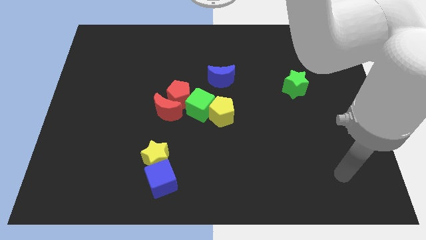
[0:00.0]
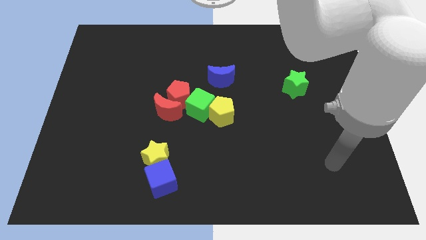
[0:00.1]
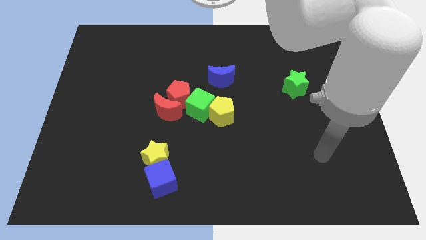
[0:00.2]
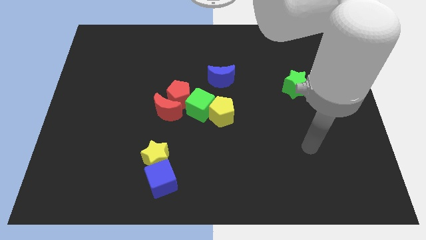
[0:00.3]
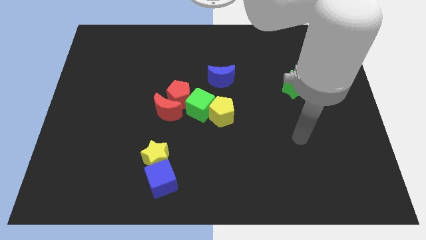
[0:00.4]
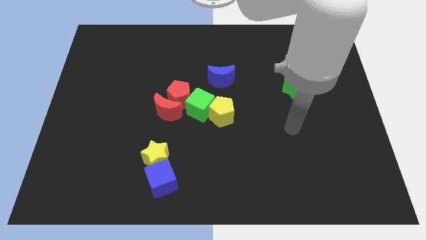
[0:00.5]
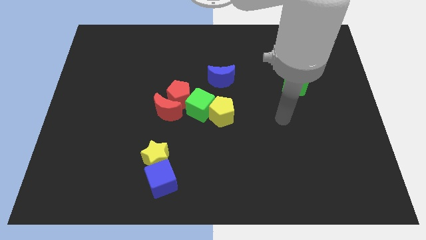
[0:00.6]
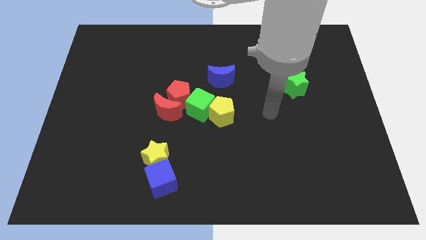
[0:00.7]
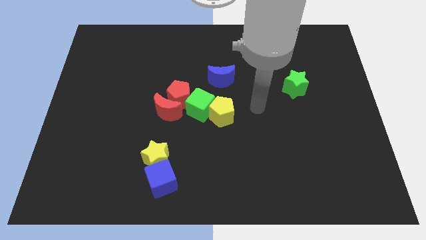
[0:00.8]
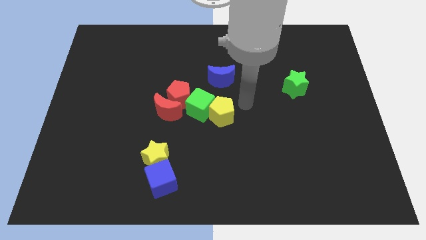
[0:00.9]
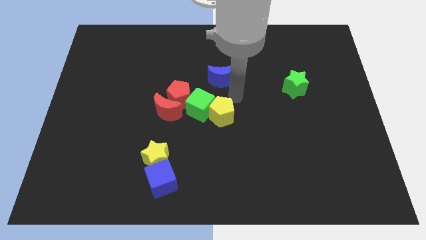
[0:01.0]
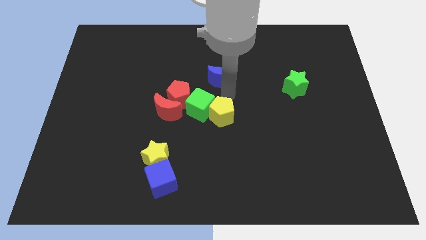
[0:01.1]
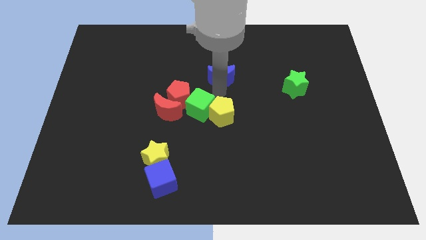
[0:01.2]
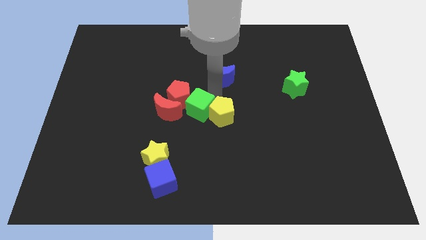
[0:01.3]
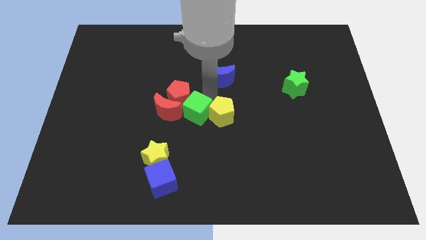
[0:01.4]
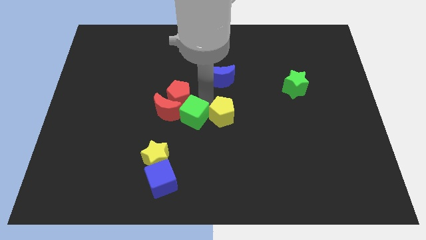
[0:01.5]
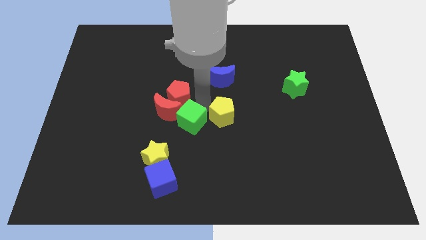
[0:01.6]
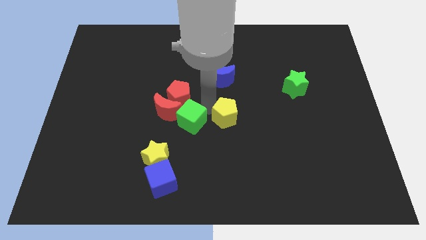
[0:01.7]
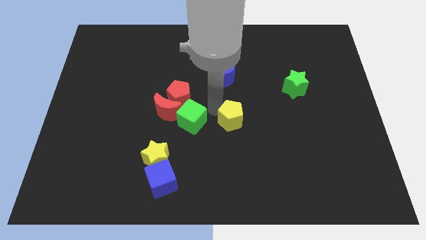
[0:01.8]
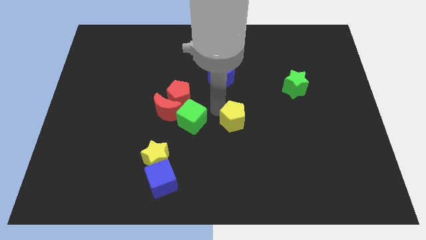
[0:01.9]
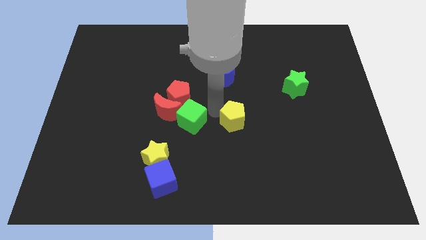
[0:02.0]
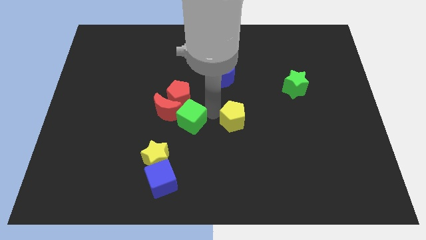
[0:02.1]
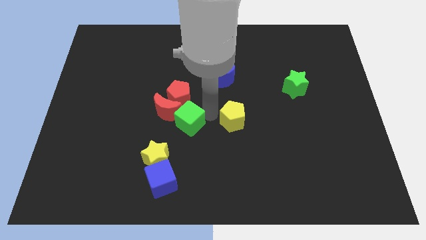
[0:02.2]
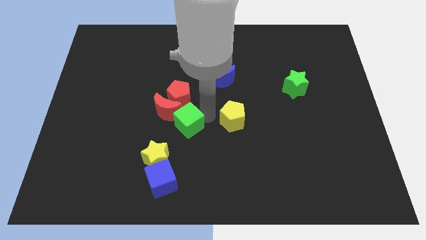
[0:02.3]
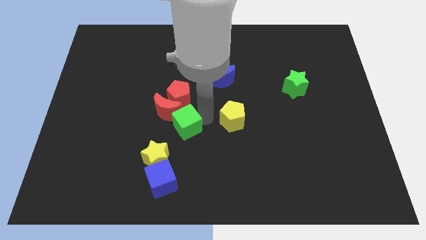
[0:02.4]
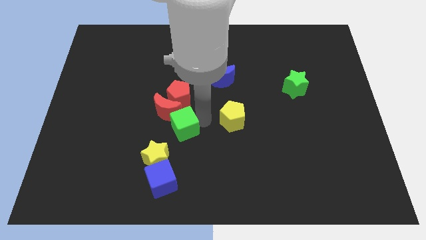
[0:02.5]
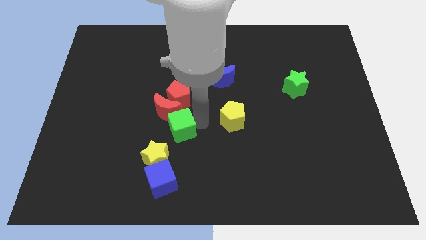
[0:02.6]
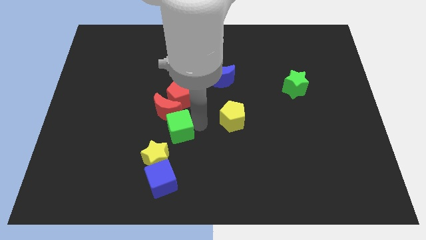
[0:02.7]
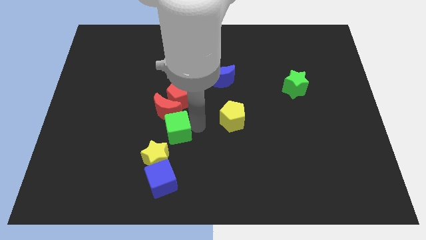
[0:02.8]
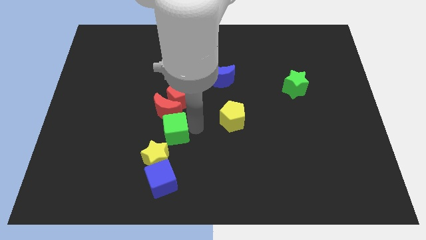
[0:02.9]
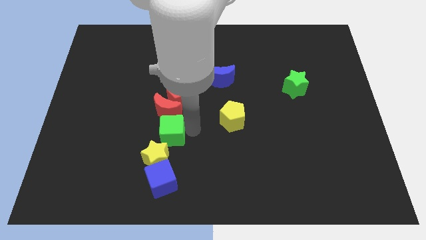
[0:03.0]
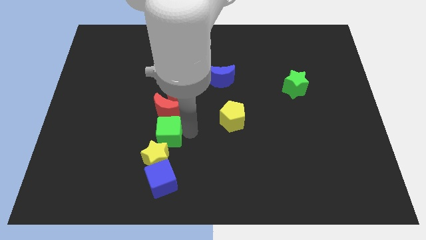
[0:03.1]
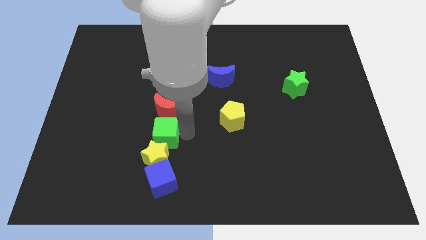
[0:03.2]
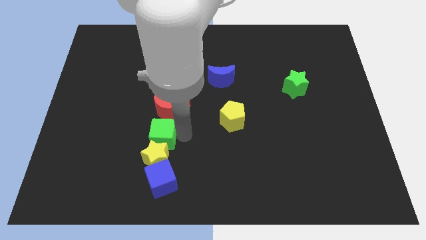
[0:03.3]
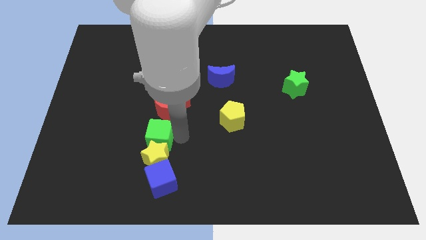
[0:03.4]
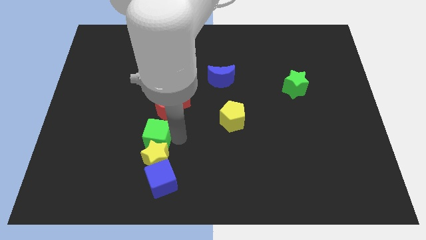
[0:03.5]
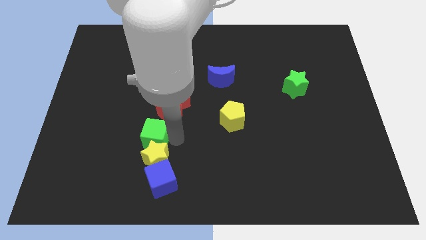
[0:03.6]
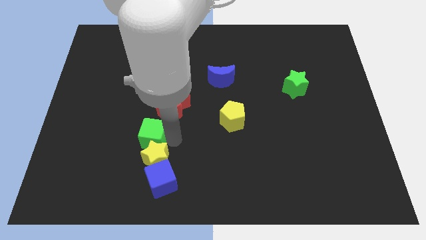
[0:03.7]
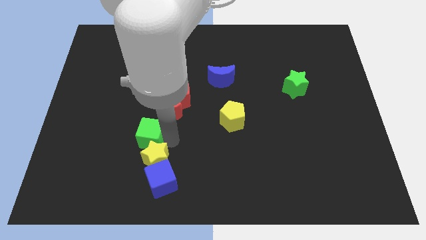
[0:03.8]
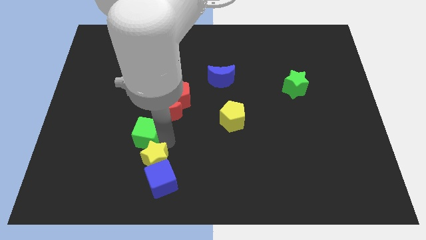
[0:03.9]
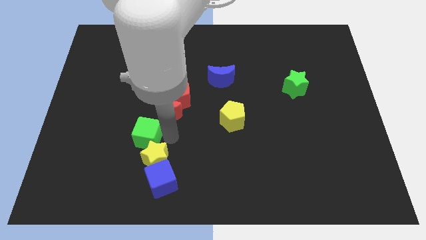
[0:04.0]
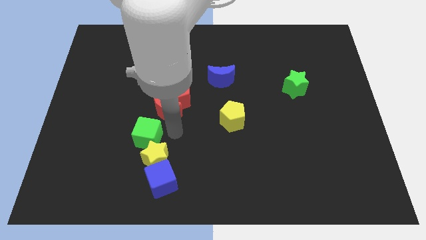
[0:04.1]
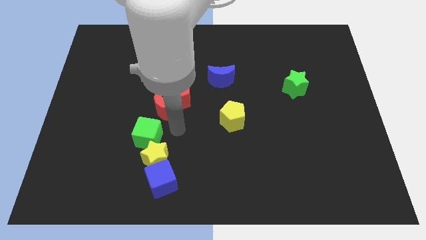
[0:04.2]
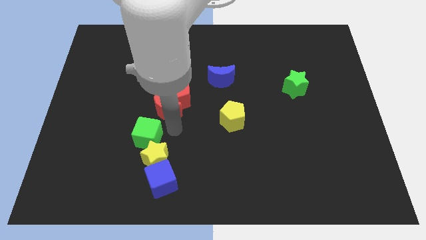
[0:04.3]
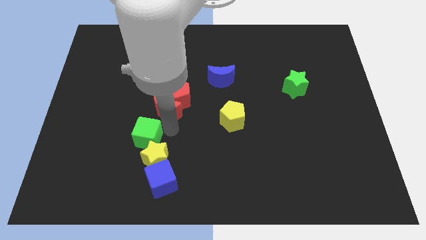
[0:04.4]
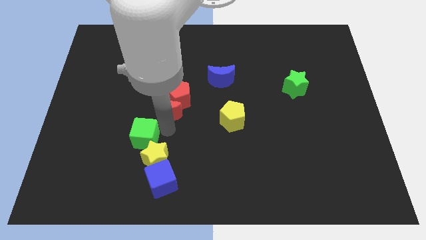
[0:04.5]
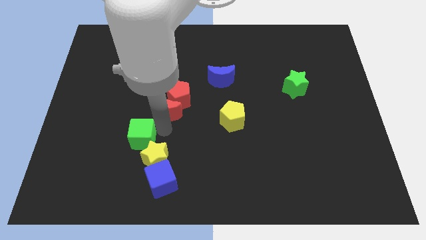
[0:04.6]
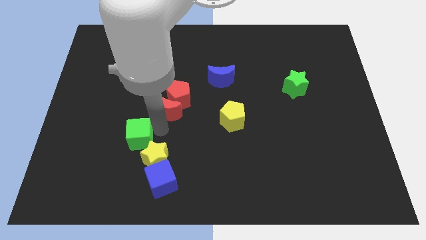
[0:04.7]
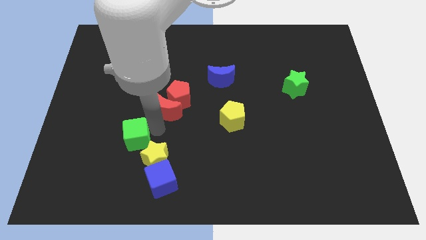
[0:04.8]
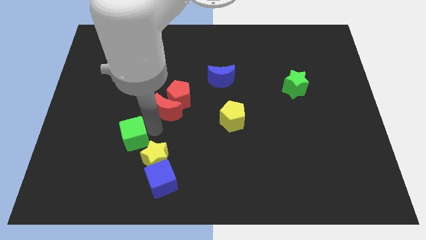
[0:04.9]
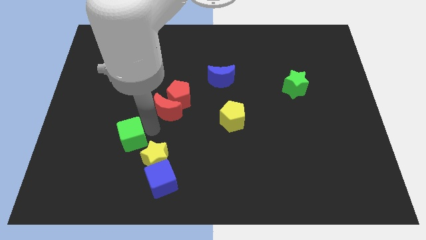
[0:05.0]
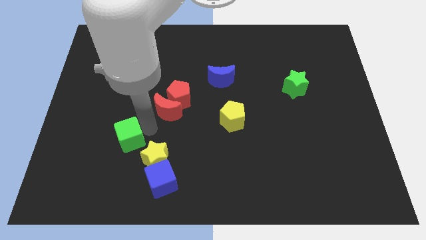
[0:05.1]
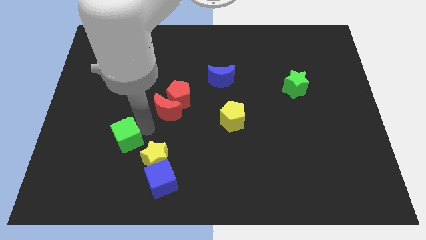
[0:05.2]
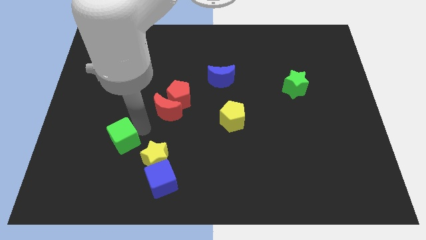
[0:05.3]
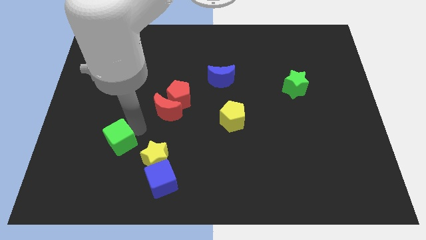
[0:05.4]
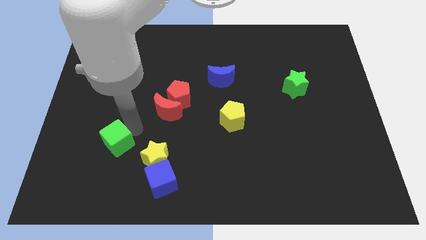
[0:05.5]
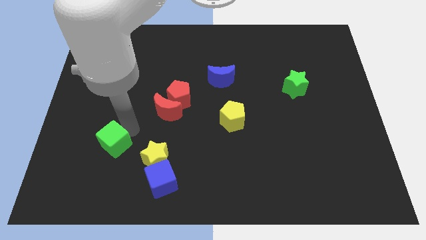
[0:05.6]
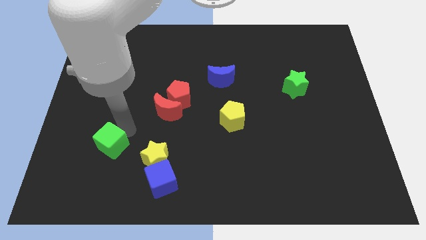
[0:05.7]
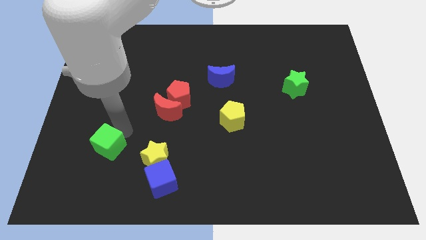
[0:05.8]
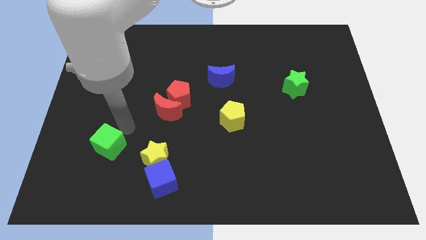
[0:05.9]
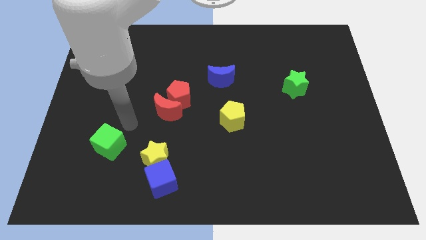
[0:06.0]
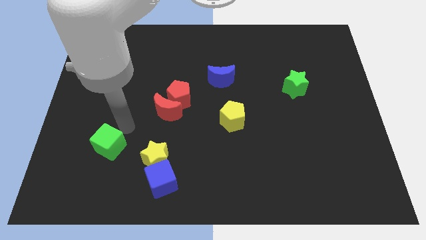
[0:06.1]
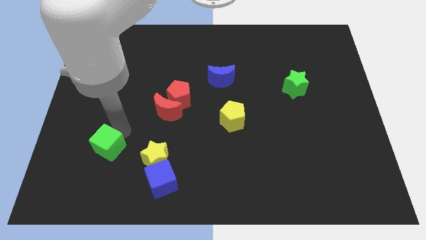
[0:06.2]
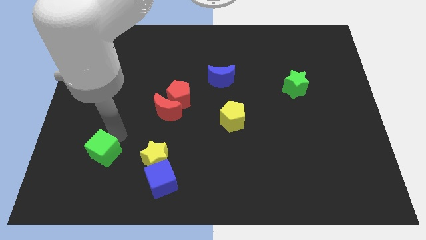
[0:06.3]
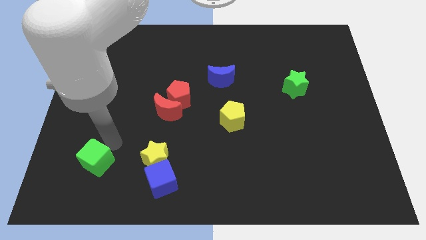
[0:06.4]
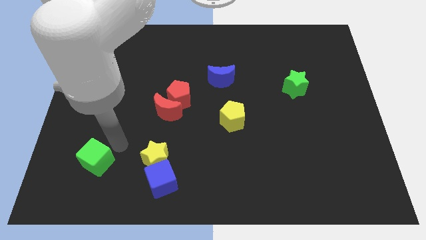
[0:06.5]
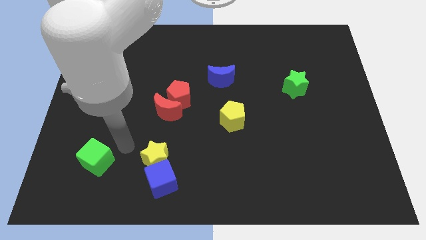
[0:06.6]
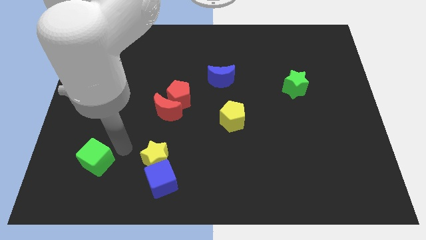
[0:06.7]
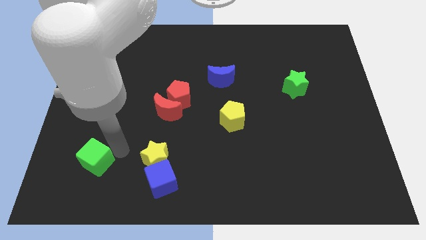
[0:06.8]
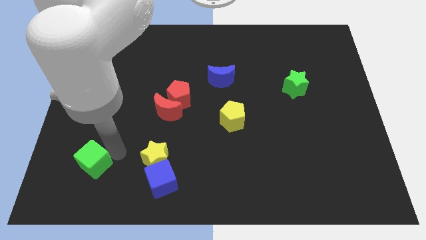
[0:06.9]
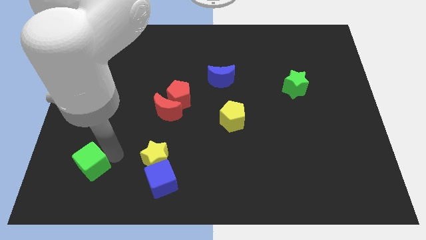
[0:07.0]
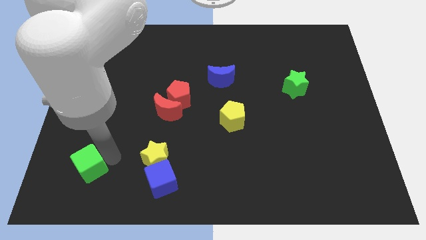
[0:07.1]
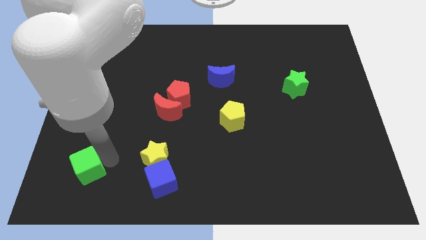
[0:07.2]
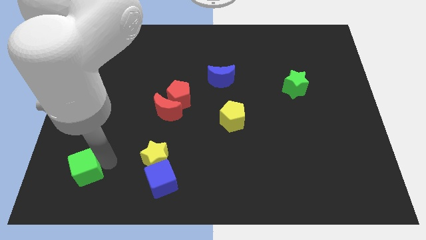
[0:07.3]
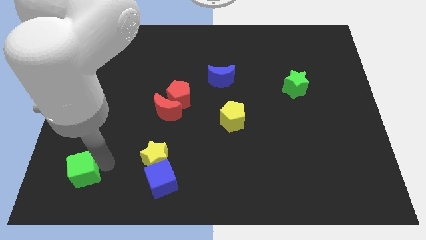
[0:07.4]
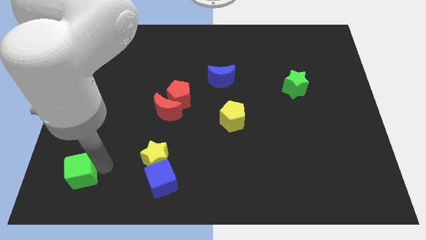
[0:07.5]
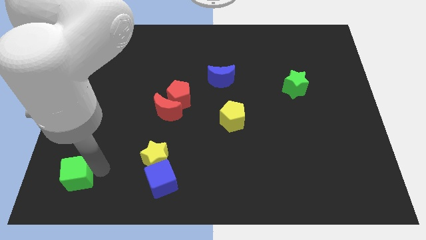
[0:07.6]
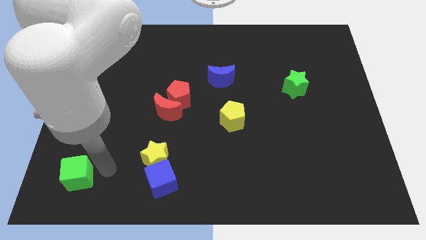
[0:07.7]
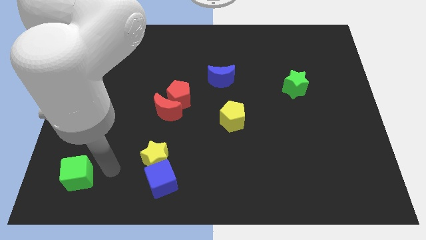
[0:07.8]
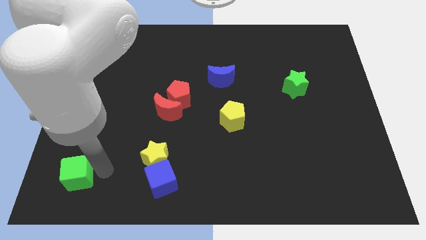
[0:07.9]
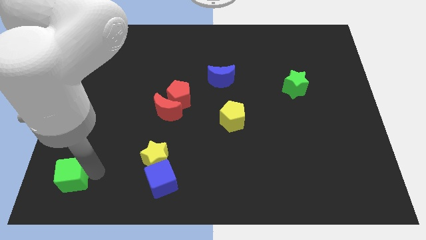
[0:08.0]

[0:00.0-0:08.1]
put the green cube to the bottom left
